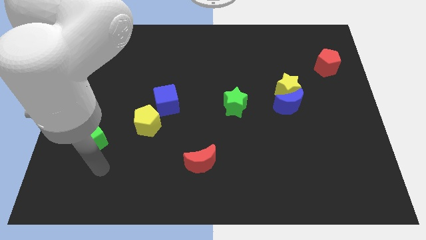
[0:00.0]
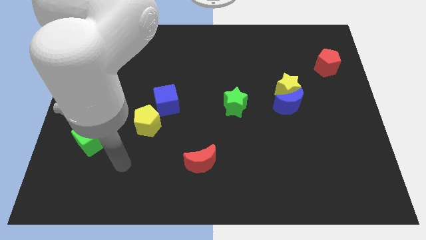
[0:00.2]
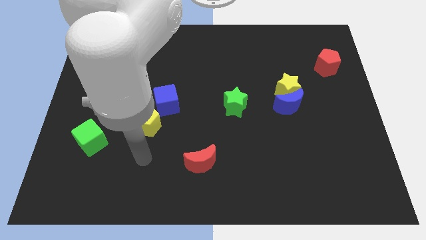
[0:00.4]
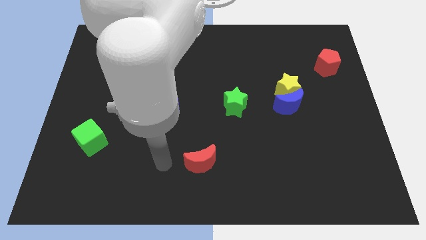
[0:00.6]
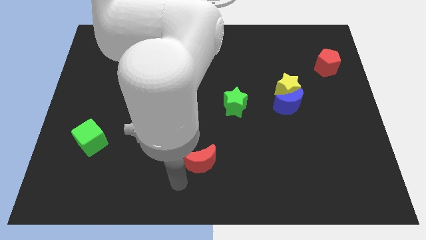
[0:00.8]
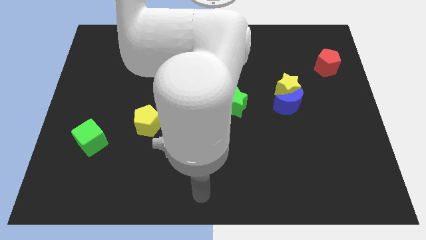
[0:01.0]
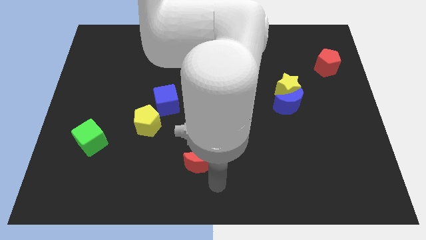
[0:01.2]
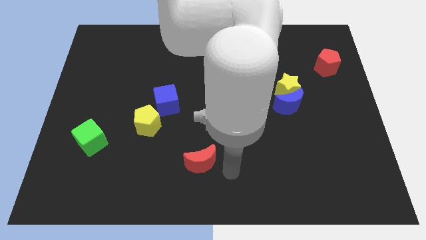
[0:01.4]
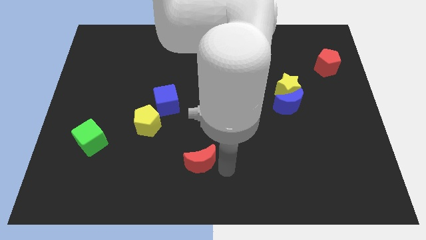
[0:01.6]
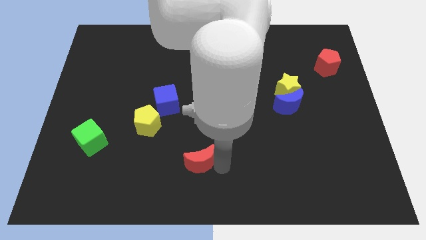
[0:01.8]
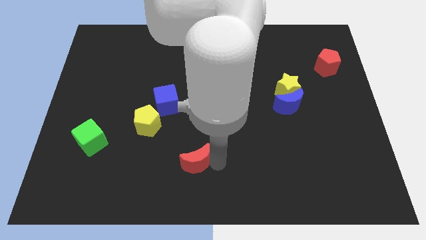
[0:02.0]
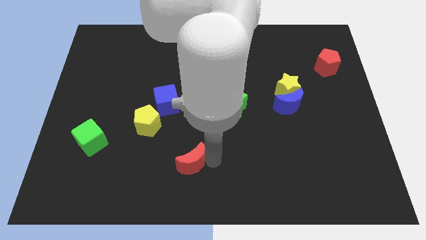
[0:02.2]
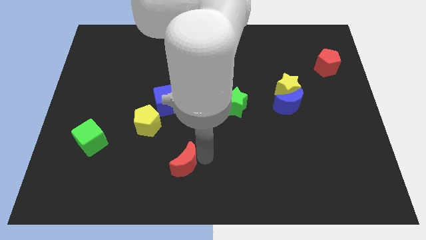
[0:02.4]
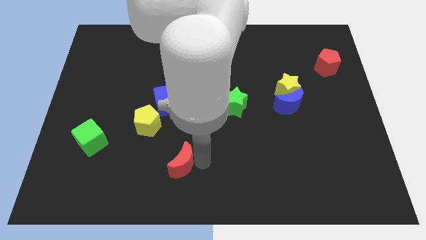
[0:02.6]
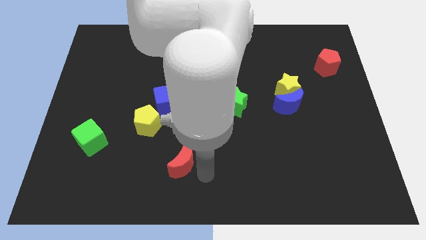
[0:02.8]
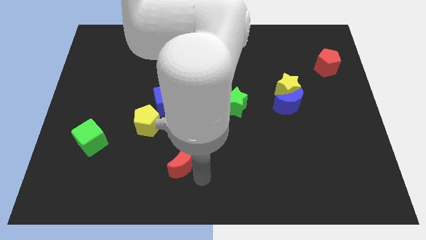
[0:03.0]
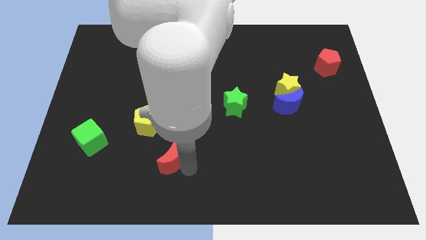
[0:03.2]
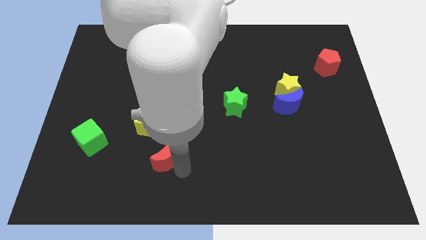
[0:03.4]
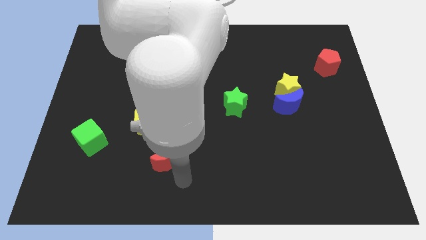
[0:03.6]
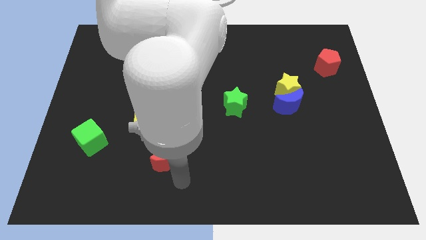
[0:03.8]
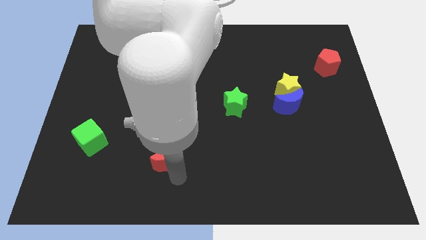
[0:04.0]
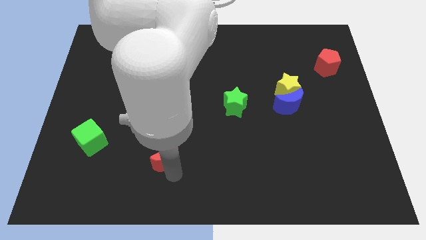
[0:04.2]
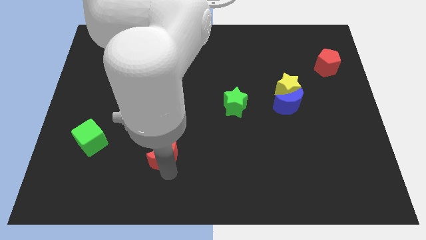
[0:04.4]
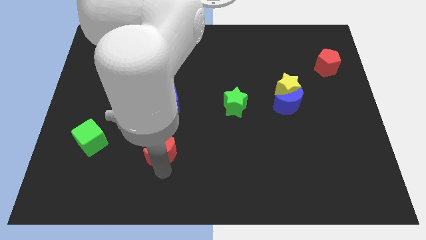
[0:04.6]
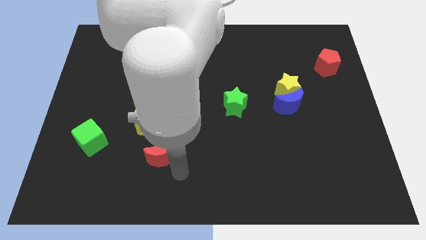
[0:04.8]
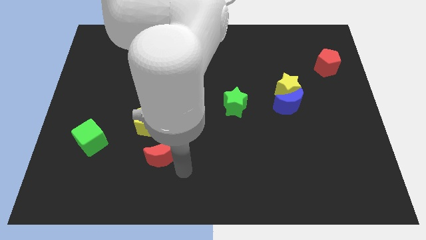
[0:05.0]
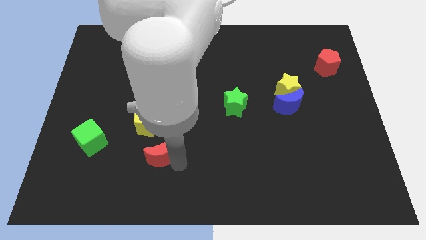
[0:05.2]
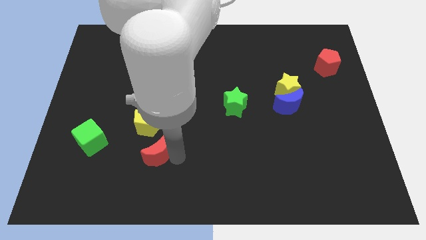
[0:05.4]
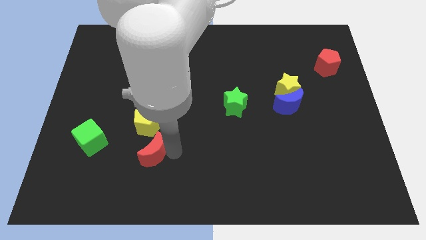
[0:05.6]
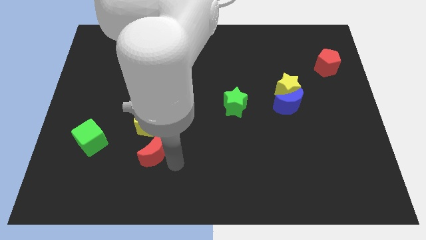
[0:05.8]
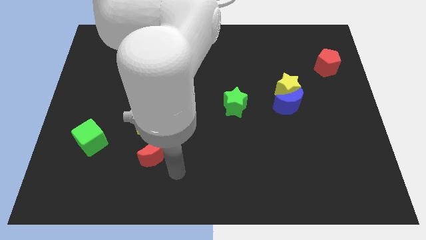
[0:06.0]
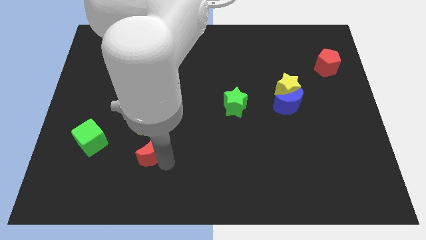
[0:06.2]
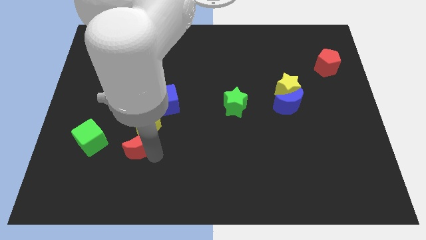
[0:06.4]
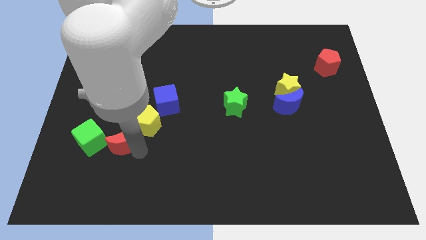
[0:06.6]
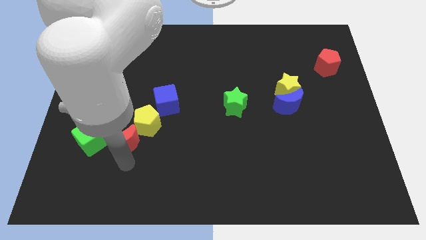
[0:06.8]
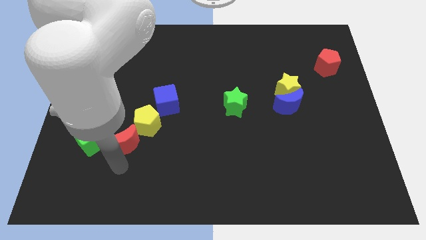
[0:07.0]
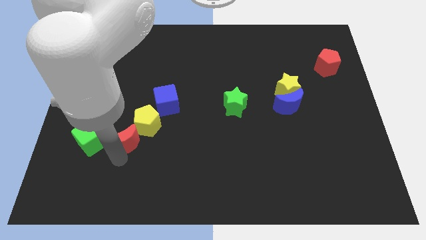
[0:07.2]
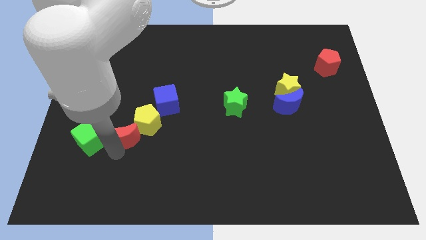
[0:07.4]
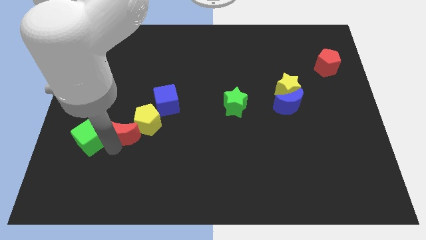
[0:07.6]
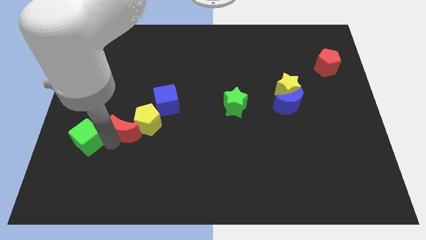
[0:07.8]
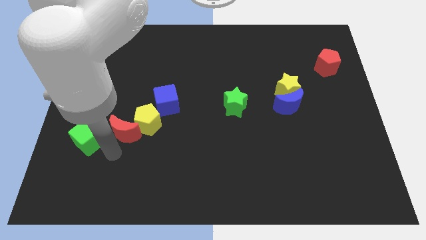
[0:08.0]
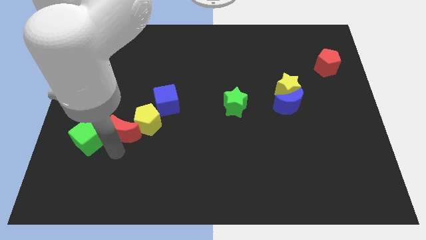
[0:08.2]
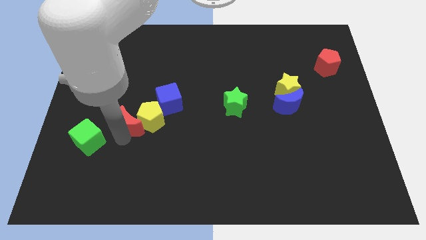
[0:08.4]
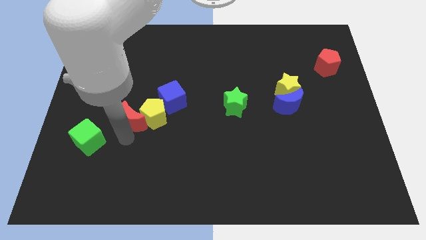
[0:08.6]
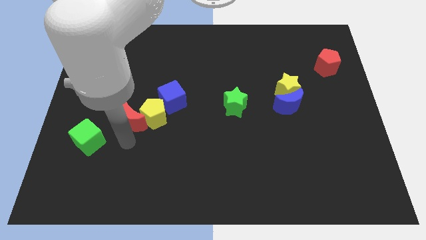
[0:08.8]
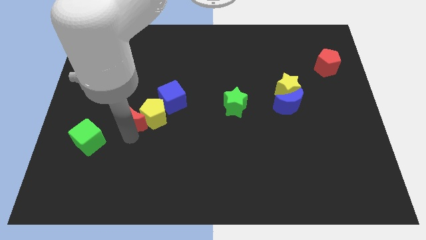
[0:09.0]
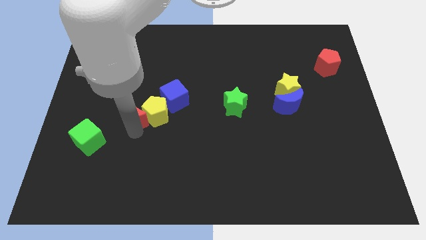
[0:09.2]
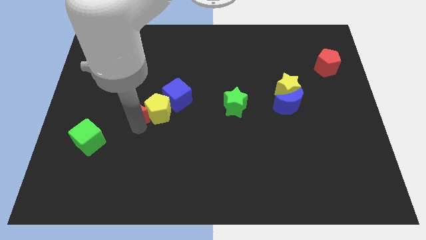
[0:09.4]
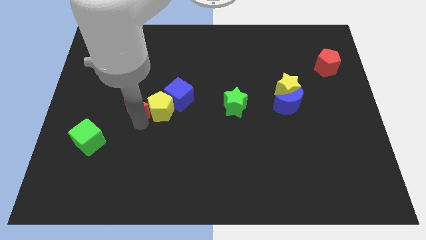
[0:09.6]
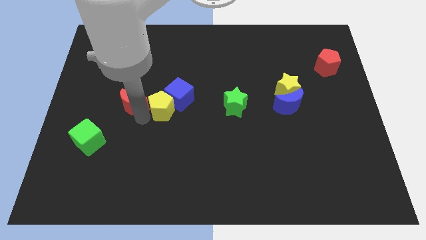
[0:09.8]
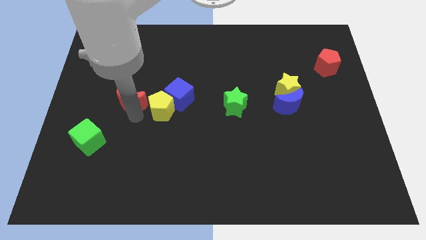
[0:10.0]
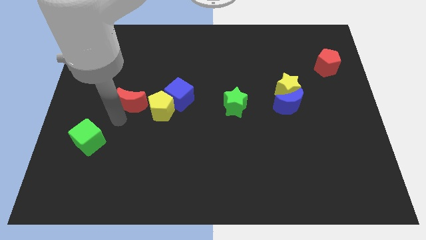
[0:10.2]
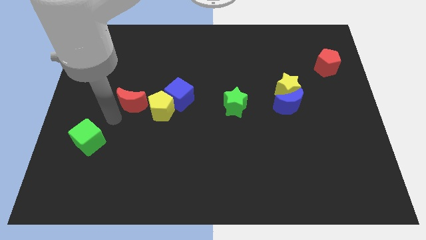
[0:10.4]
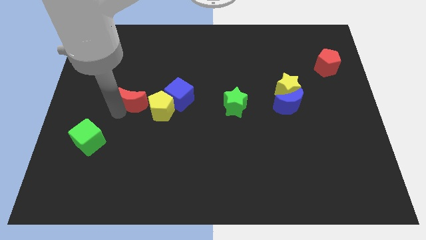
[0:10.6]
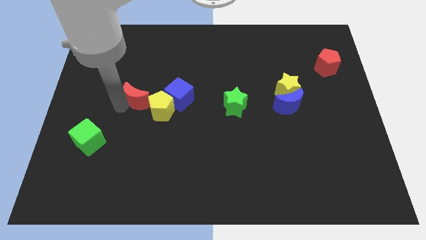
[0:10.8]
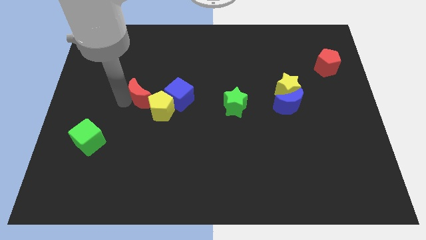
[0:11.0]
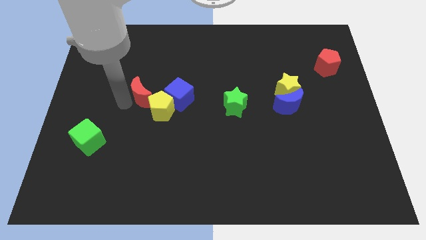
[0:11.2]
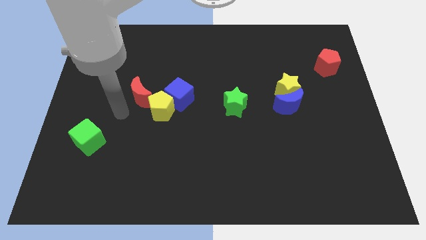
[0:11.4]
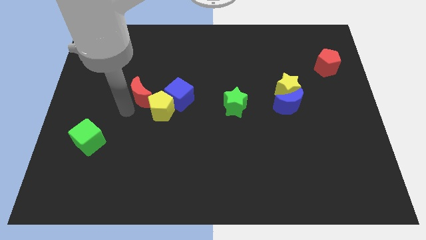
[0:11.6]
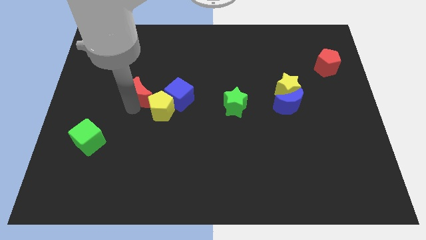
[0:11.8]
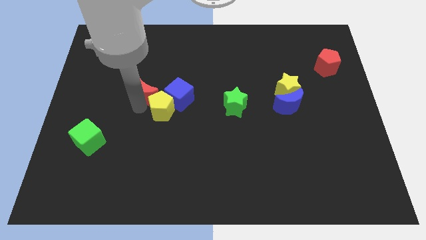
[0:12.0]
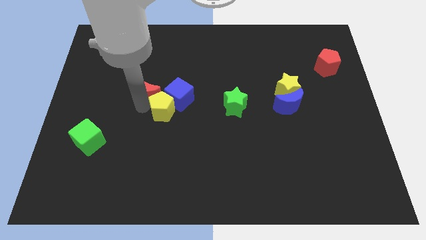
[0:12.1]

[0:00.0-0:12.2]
push the red moon to the top left side of the blue cube

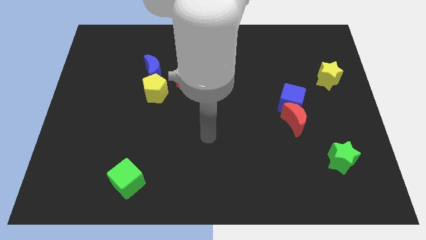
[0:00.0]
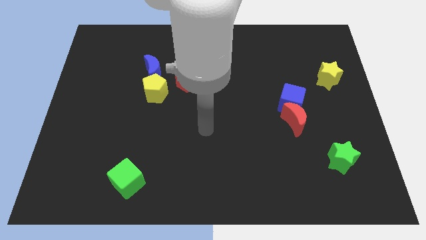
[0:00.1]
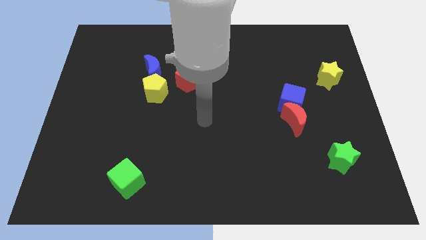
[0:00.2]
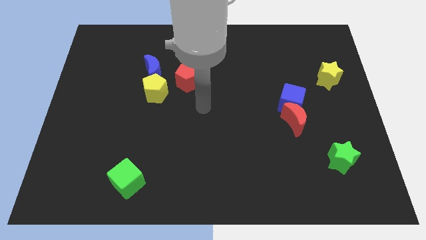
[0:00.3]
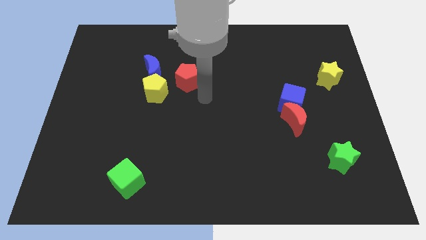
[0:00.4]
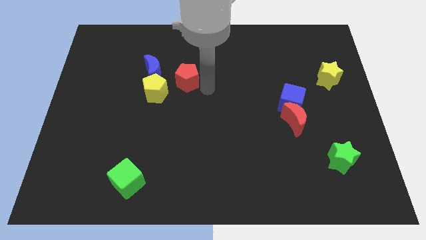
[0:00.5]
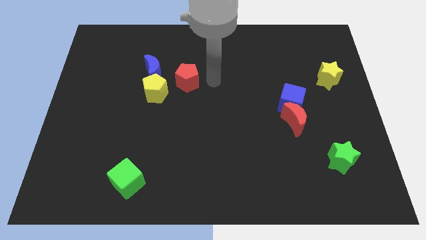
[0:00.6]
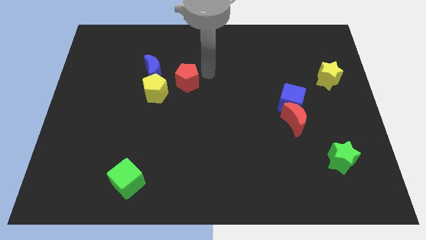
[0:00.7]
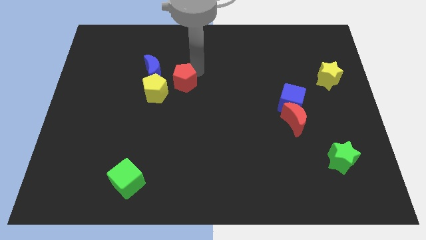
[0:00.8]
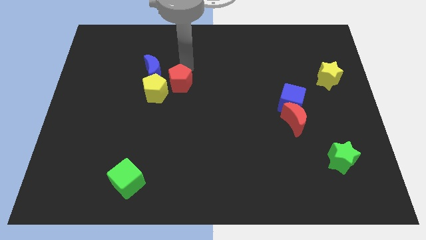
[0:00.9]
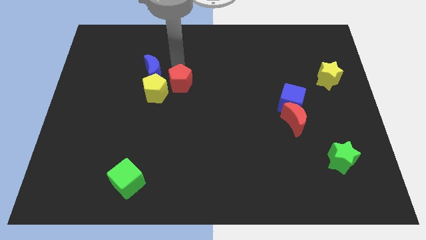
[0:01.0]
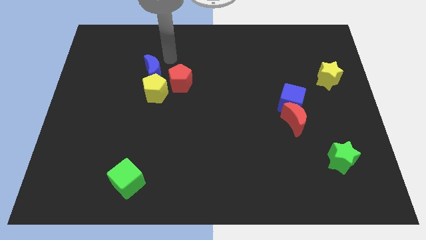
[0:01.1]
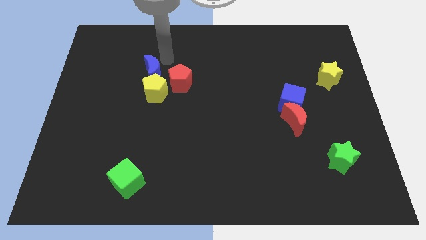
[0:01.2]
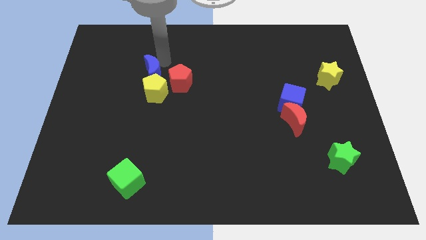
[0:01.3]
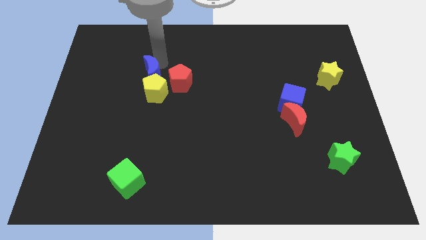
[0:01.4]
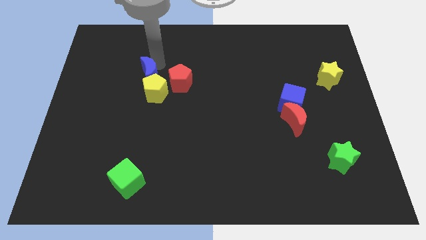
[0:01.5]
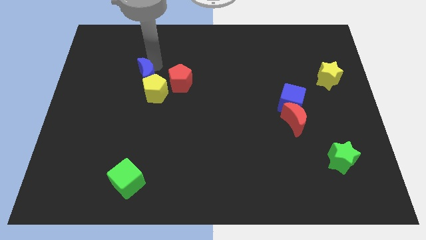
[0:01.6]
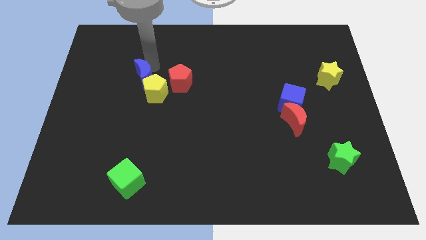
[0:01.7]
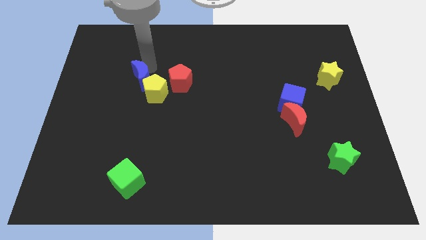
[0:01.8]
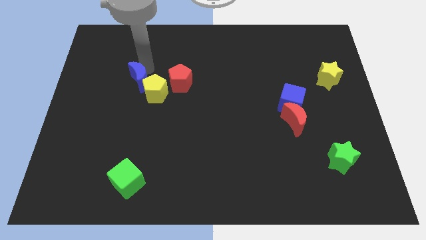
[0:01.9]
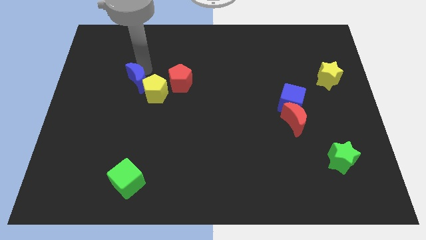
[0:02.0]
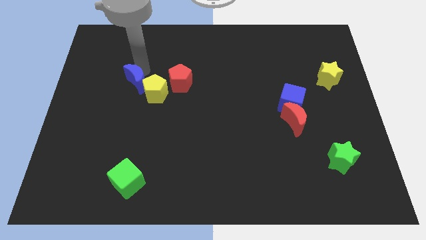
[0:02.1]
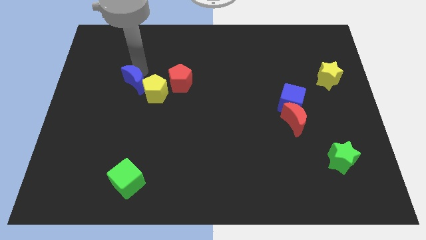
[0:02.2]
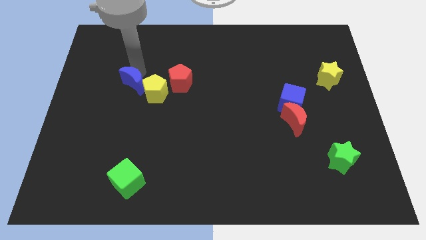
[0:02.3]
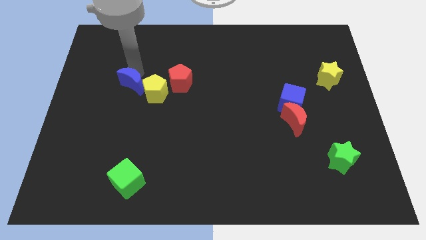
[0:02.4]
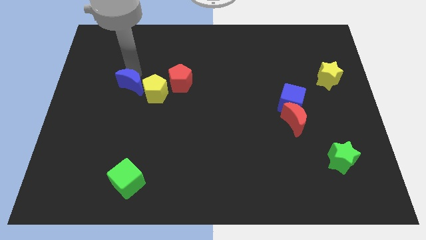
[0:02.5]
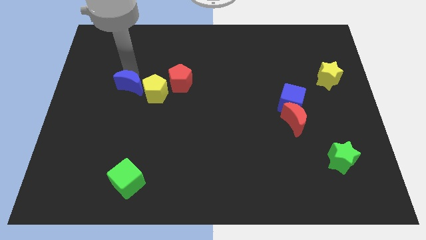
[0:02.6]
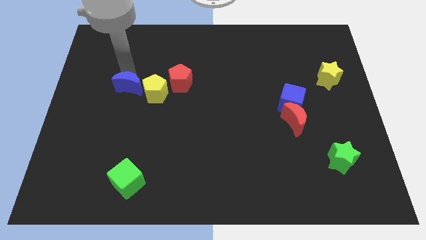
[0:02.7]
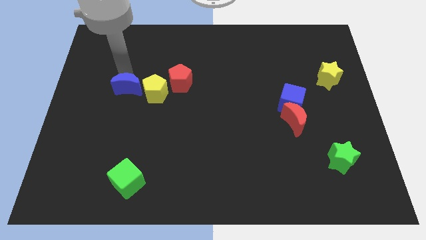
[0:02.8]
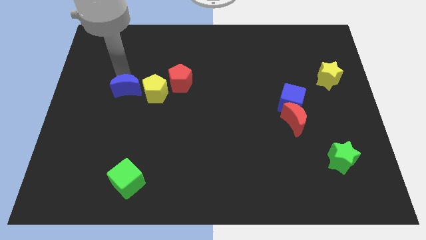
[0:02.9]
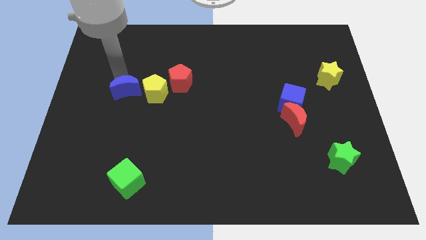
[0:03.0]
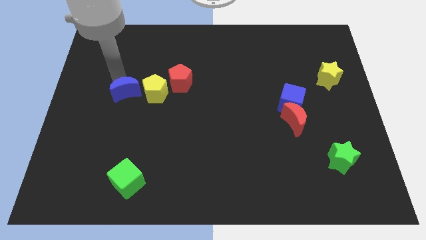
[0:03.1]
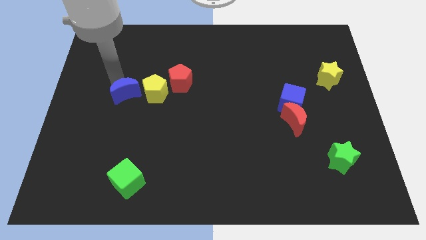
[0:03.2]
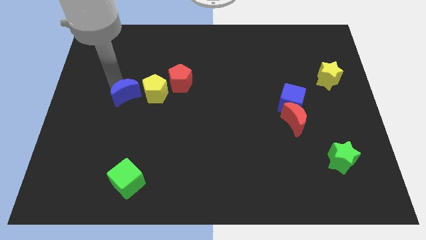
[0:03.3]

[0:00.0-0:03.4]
move the blue moon to the bottom left side of the yellow pentagon
